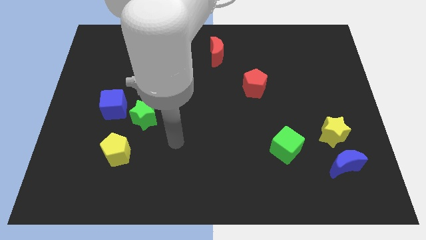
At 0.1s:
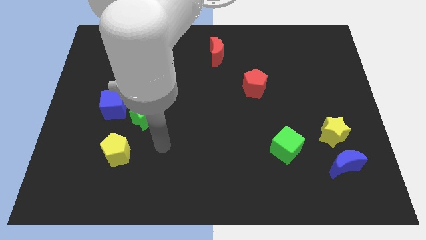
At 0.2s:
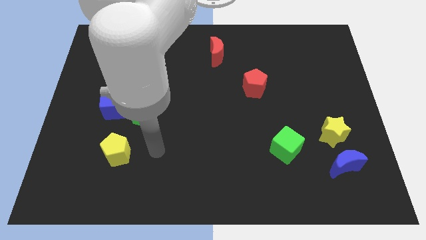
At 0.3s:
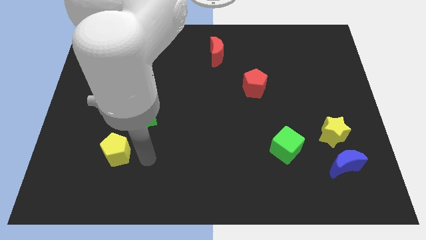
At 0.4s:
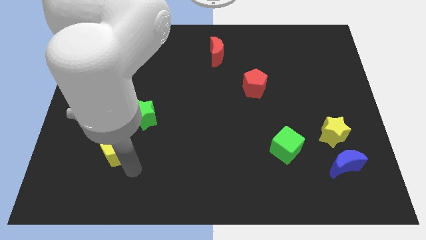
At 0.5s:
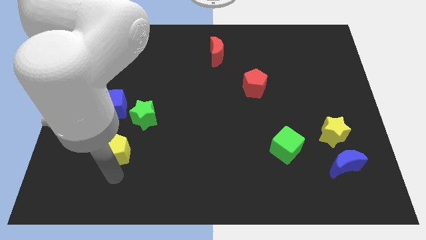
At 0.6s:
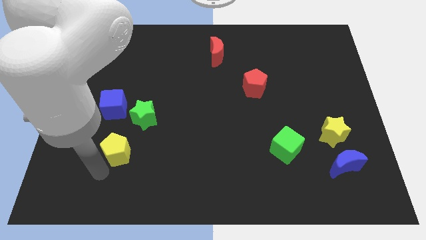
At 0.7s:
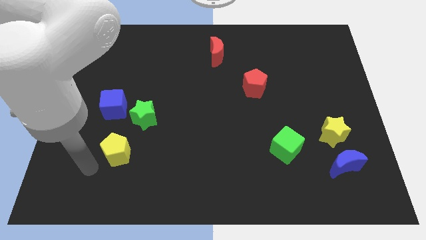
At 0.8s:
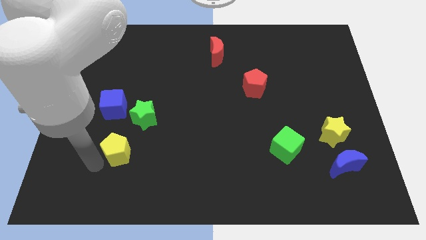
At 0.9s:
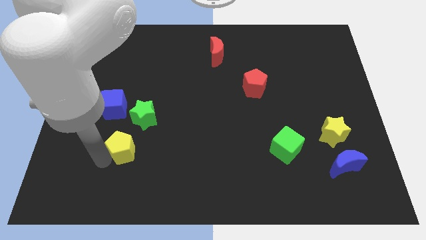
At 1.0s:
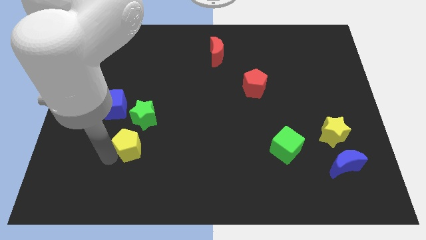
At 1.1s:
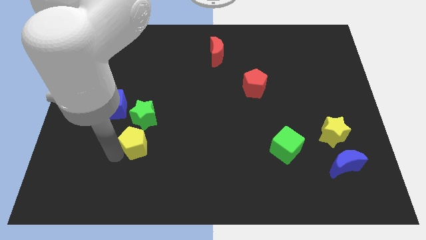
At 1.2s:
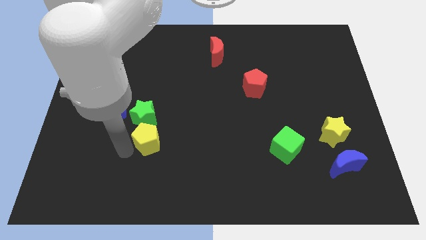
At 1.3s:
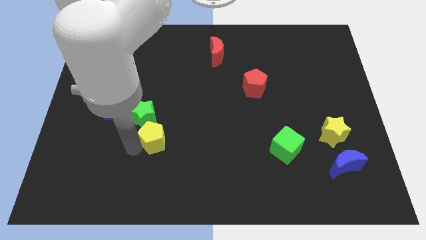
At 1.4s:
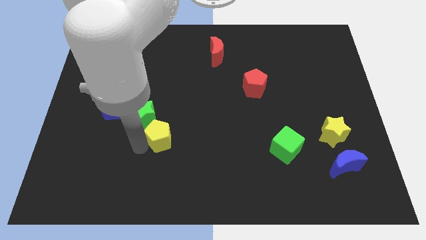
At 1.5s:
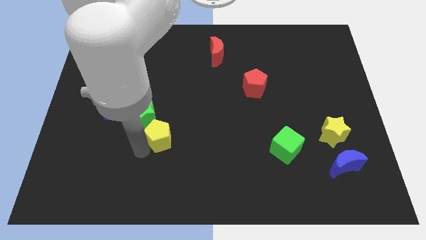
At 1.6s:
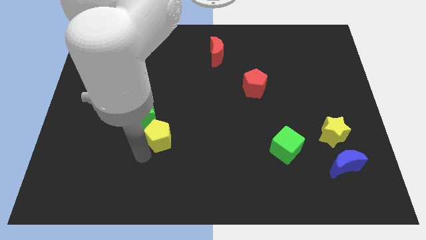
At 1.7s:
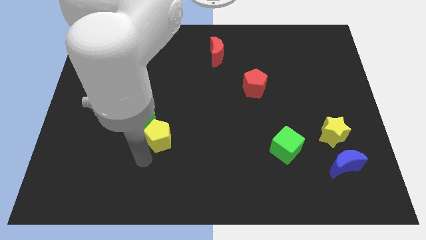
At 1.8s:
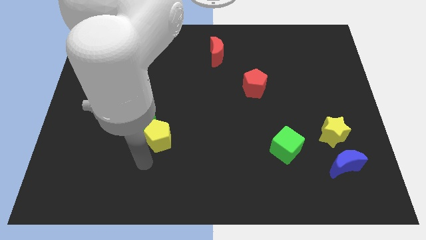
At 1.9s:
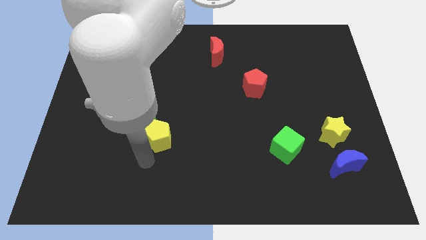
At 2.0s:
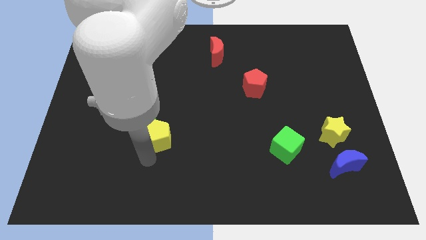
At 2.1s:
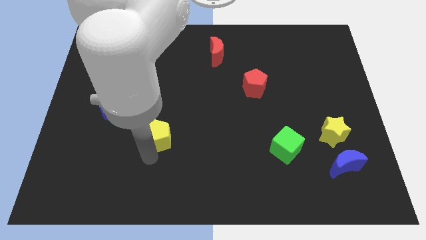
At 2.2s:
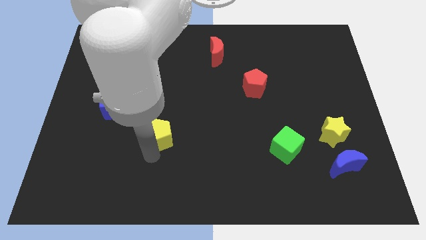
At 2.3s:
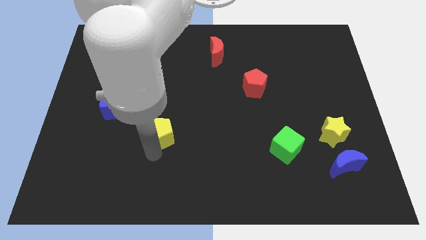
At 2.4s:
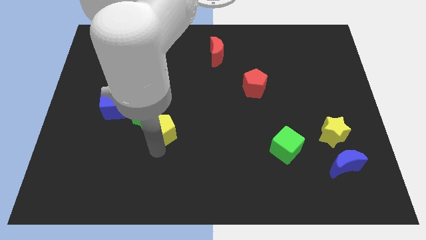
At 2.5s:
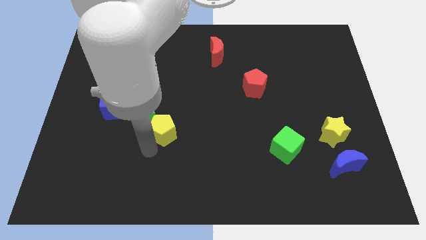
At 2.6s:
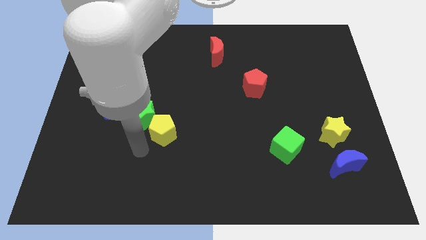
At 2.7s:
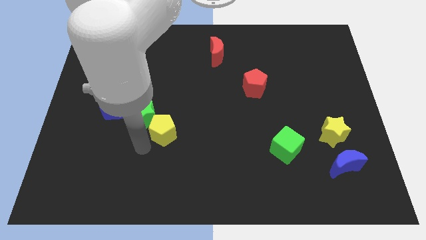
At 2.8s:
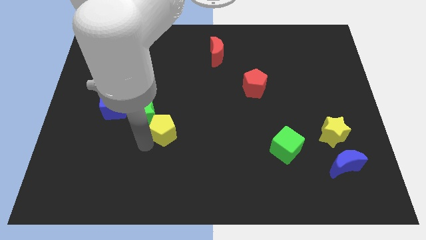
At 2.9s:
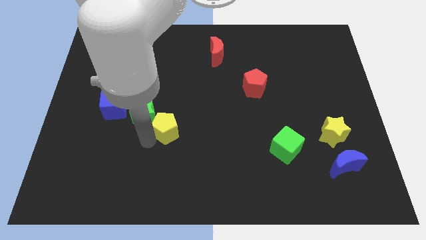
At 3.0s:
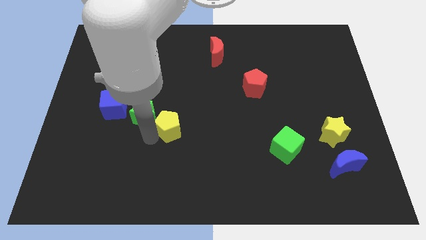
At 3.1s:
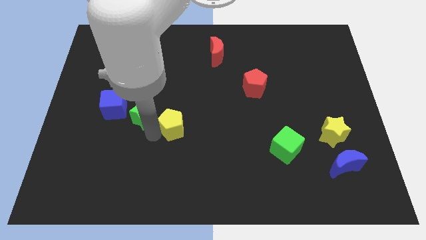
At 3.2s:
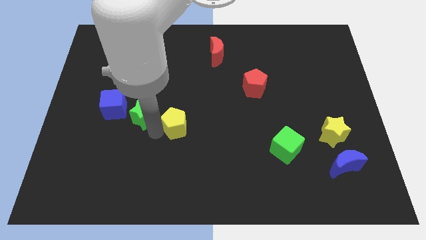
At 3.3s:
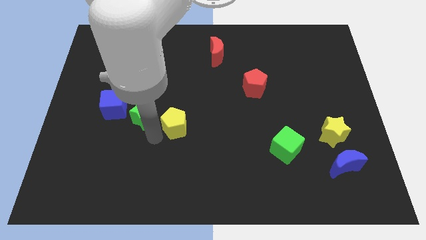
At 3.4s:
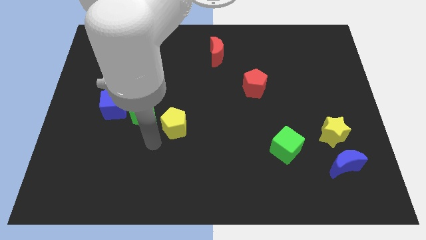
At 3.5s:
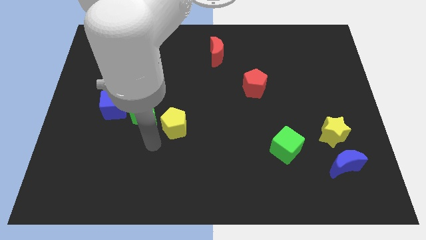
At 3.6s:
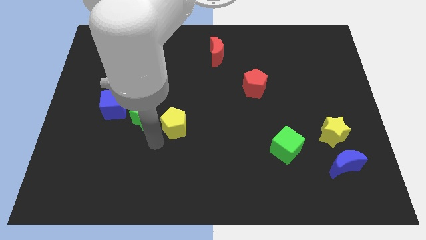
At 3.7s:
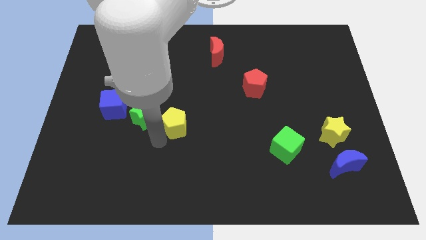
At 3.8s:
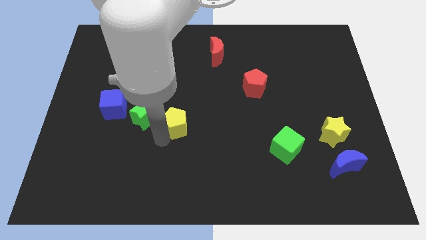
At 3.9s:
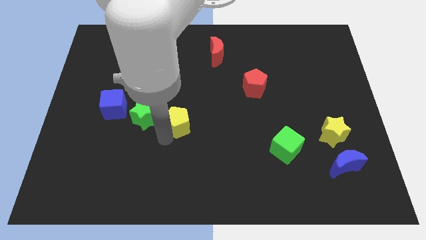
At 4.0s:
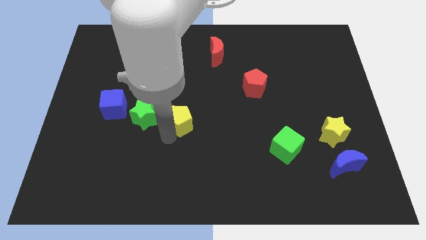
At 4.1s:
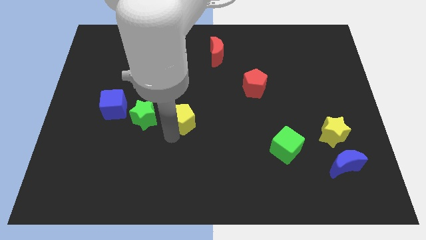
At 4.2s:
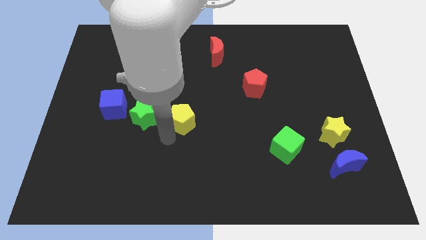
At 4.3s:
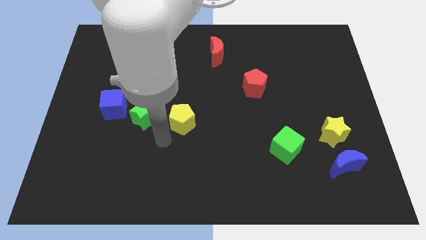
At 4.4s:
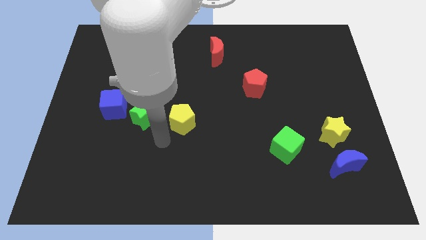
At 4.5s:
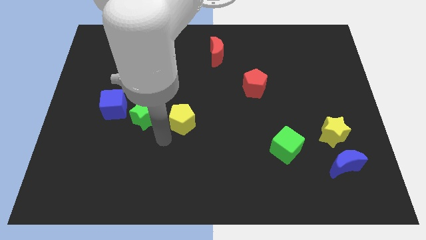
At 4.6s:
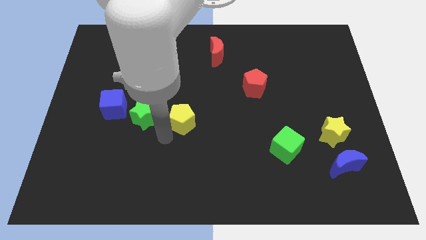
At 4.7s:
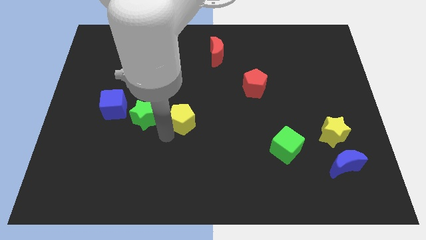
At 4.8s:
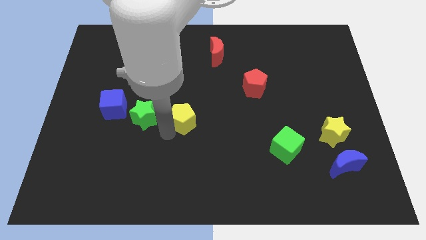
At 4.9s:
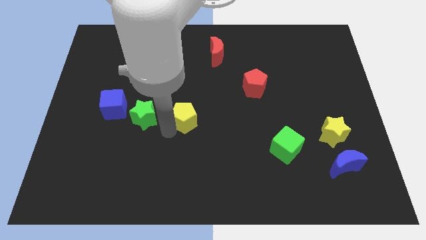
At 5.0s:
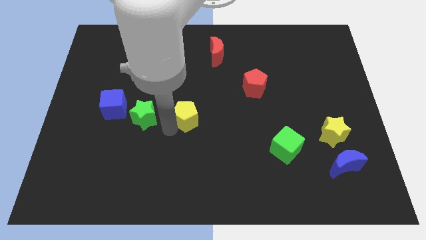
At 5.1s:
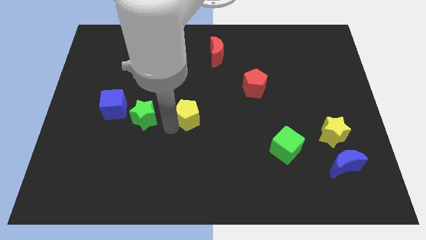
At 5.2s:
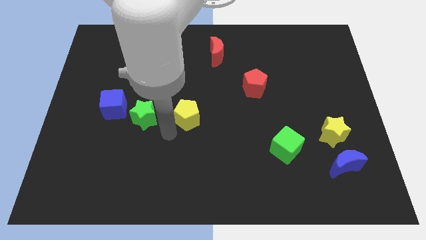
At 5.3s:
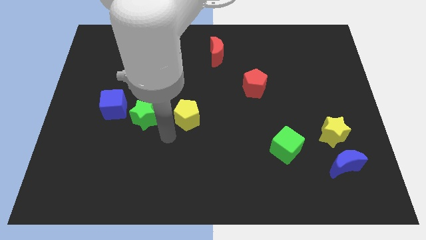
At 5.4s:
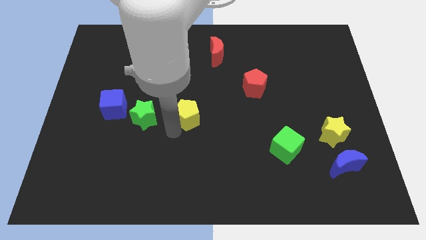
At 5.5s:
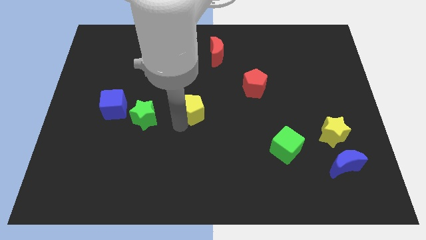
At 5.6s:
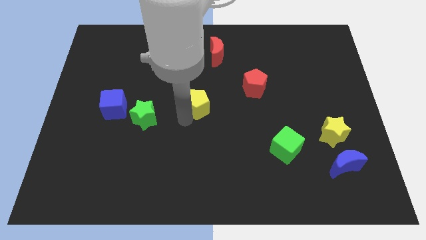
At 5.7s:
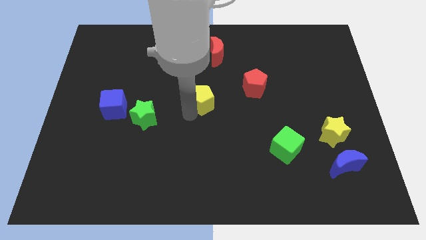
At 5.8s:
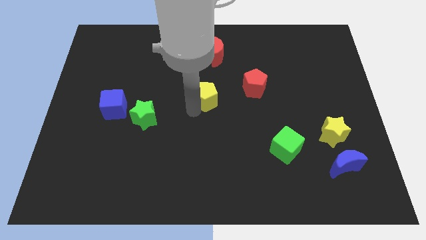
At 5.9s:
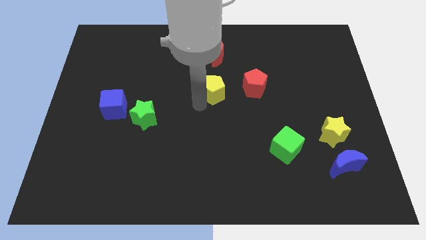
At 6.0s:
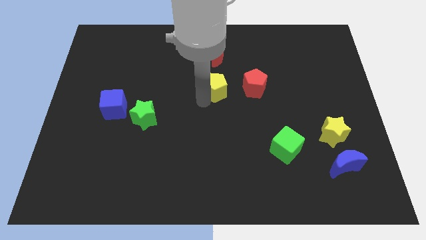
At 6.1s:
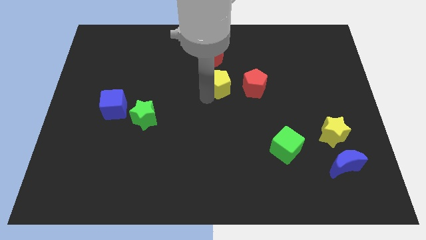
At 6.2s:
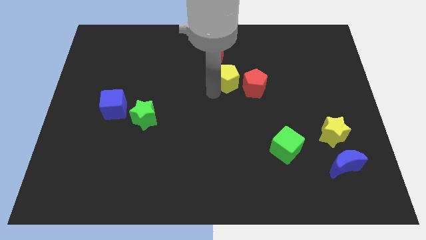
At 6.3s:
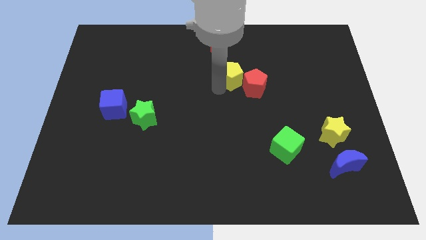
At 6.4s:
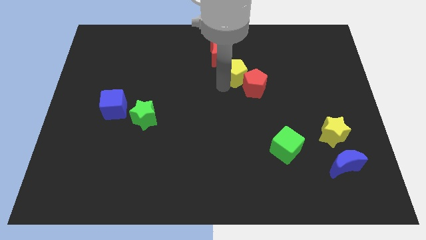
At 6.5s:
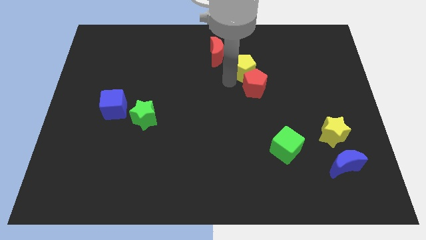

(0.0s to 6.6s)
slide the yellow pentagon to the top side of the red pentagon

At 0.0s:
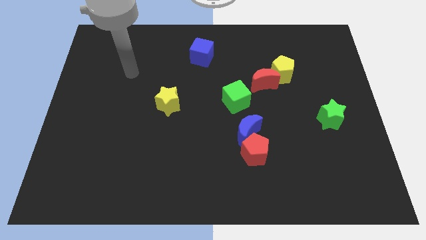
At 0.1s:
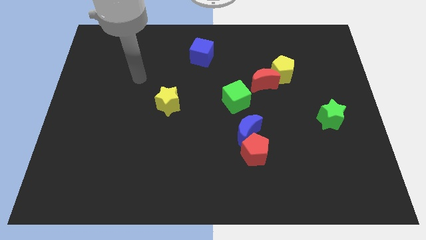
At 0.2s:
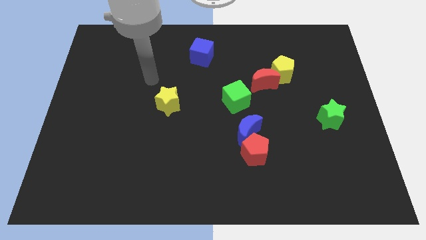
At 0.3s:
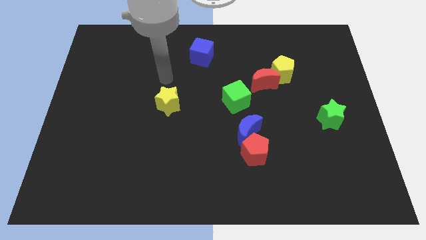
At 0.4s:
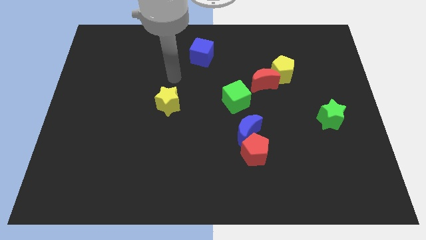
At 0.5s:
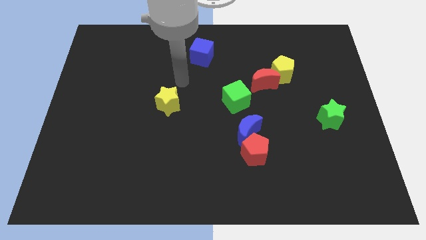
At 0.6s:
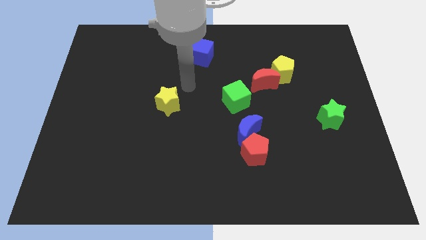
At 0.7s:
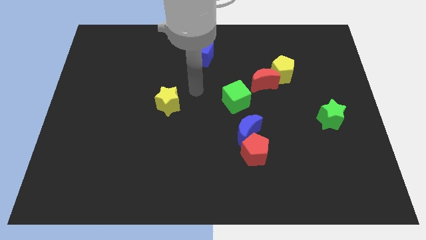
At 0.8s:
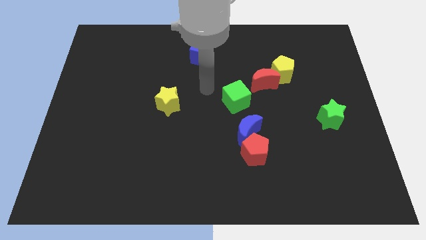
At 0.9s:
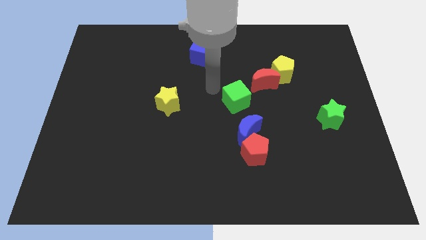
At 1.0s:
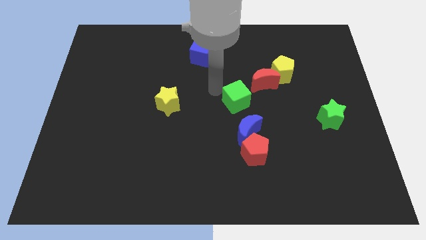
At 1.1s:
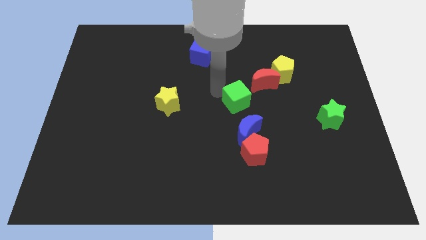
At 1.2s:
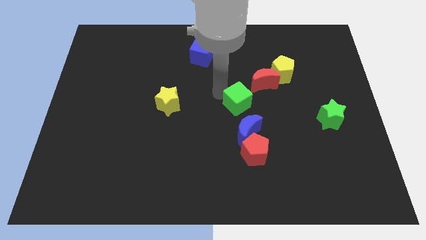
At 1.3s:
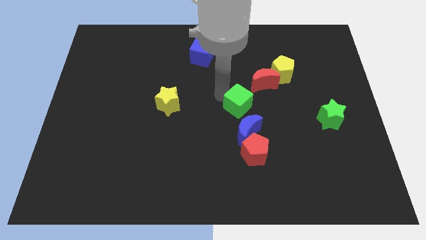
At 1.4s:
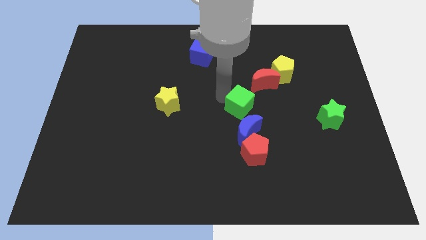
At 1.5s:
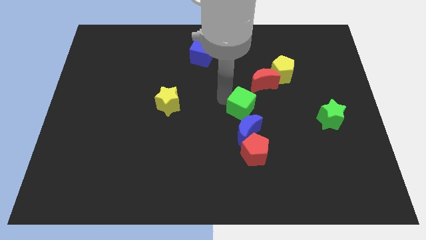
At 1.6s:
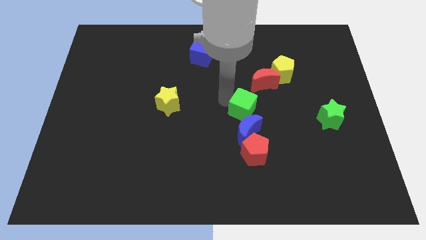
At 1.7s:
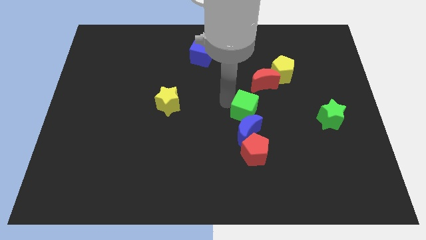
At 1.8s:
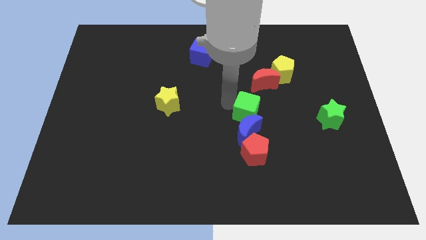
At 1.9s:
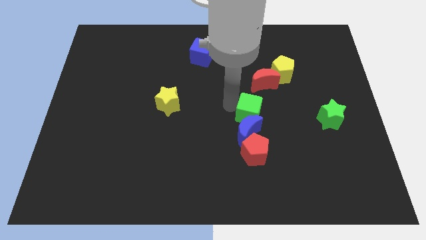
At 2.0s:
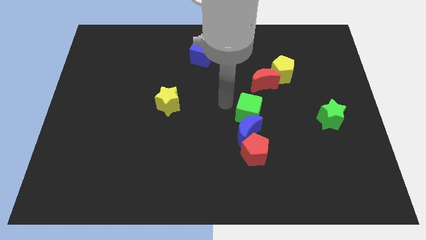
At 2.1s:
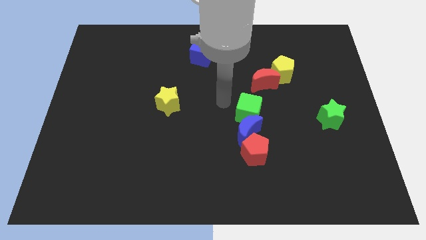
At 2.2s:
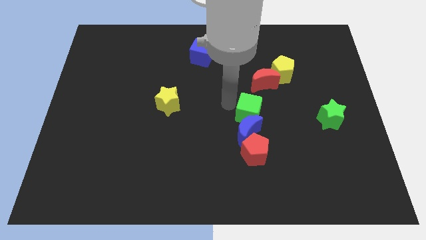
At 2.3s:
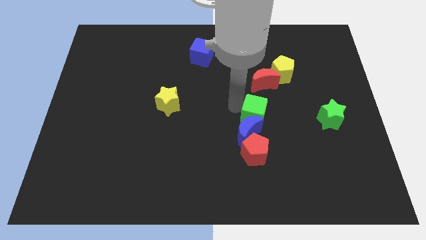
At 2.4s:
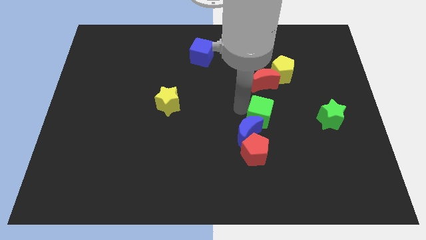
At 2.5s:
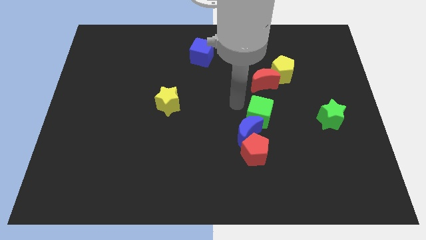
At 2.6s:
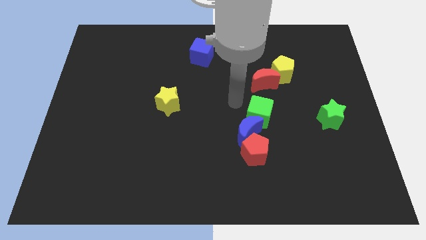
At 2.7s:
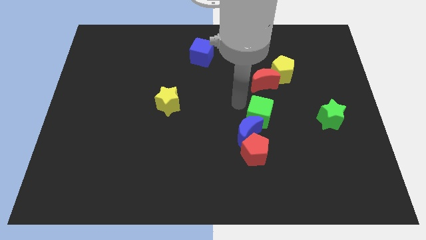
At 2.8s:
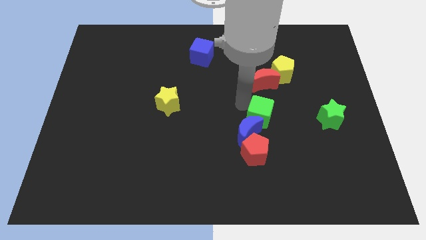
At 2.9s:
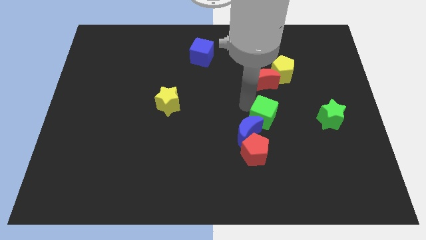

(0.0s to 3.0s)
move the green cube right of the blue moon
